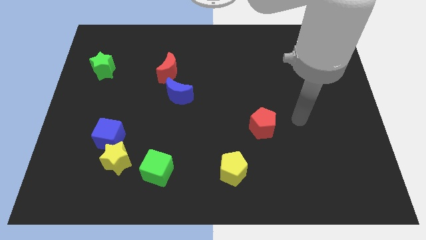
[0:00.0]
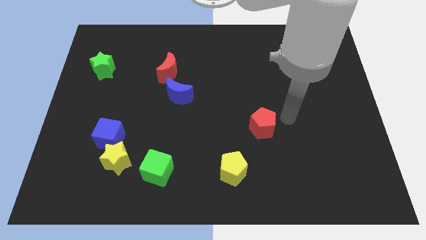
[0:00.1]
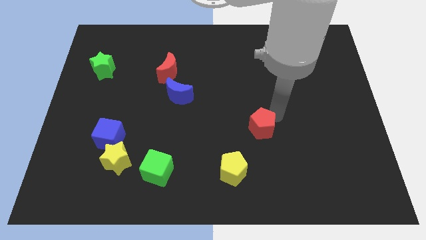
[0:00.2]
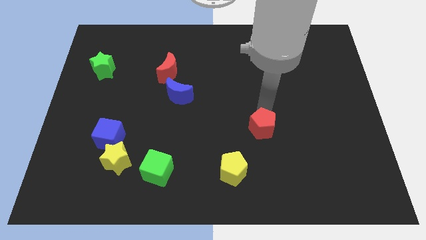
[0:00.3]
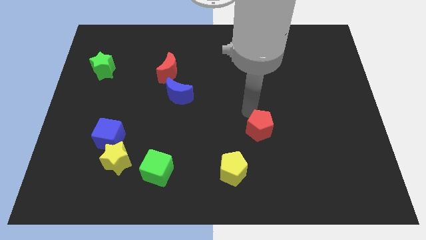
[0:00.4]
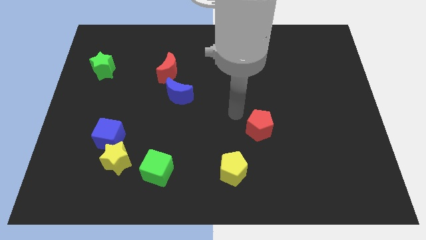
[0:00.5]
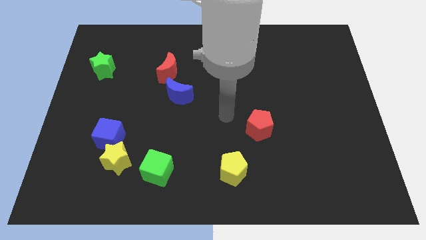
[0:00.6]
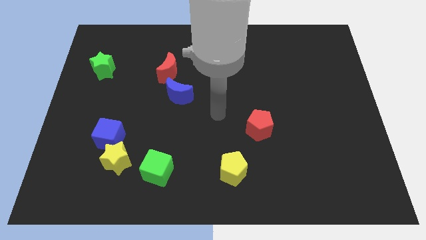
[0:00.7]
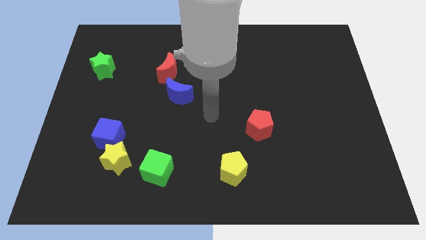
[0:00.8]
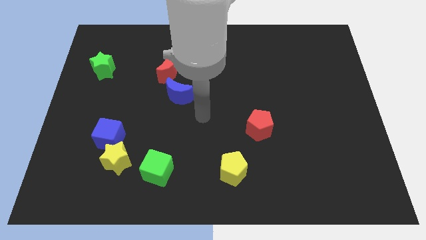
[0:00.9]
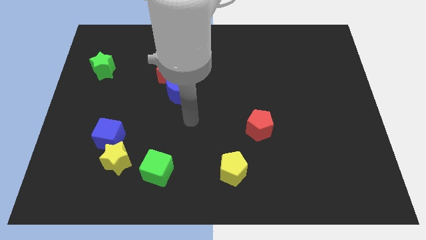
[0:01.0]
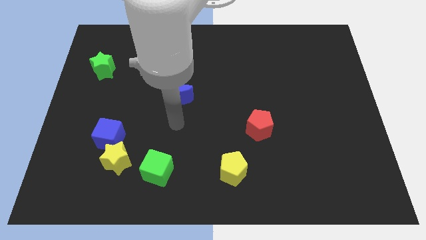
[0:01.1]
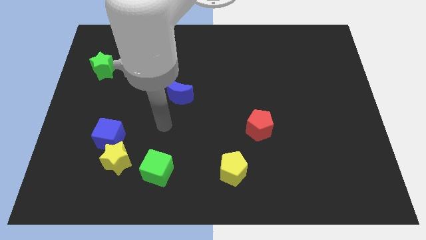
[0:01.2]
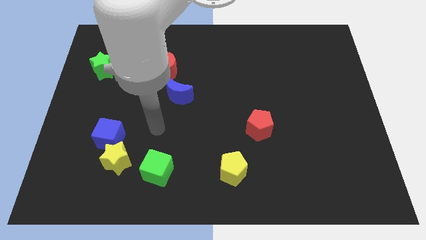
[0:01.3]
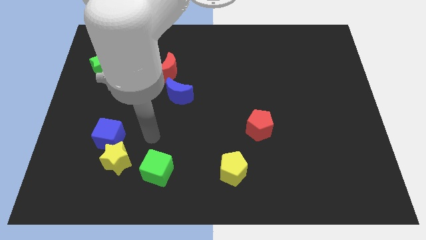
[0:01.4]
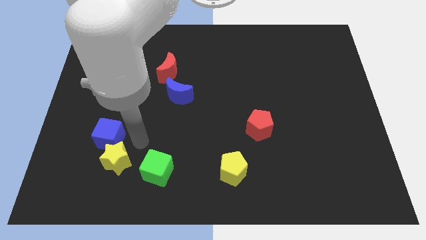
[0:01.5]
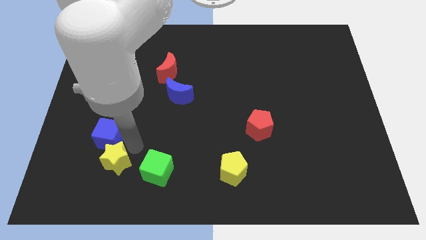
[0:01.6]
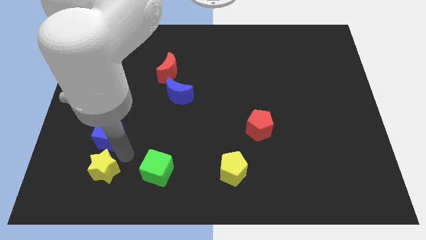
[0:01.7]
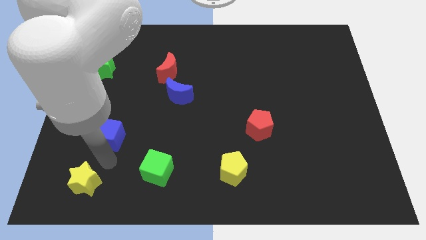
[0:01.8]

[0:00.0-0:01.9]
separate the blue cube from the yellow star

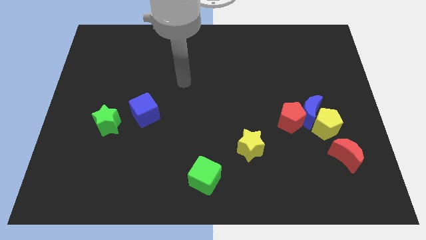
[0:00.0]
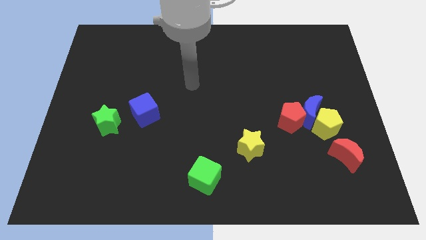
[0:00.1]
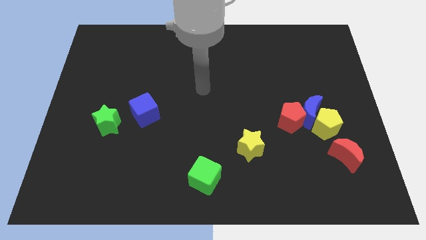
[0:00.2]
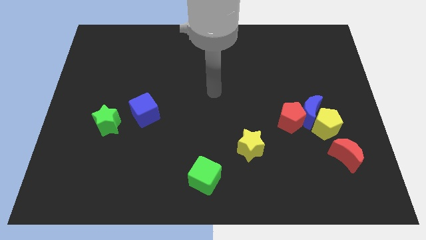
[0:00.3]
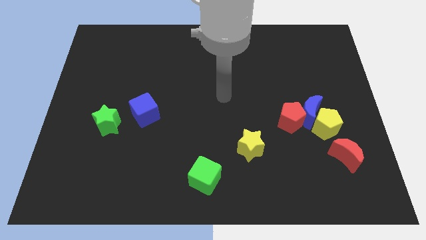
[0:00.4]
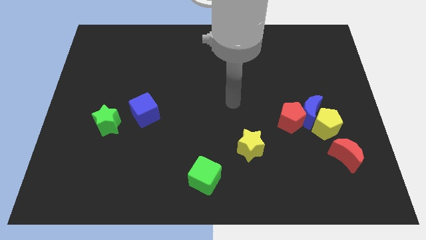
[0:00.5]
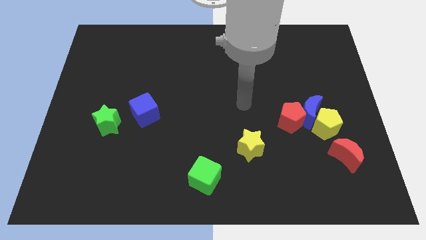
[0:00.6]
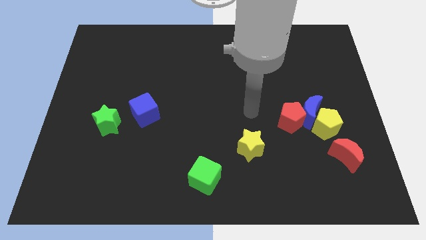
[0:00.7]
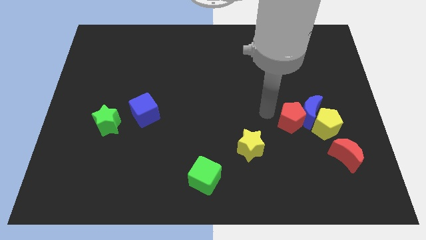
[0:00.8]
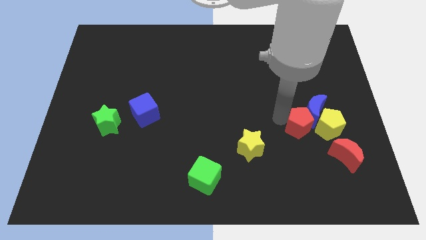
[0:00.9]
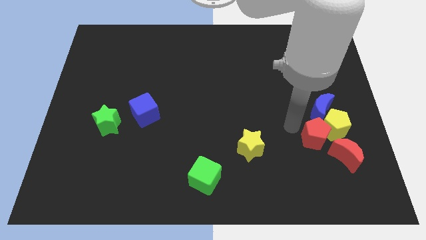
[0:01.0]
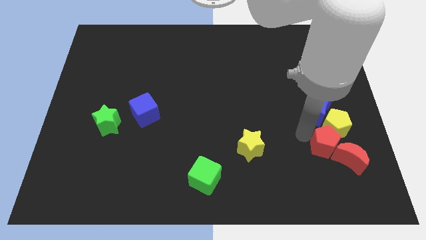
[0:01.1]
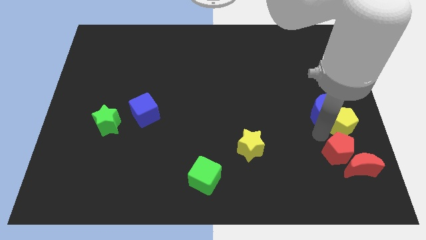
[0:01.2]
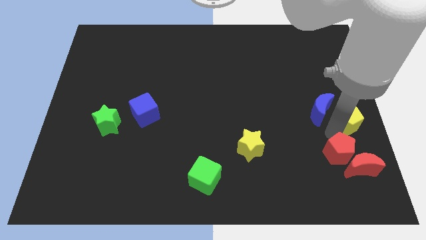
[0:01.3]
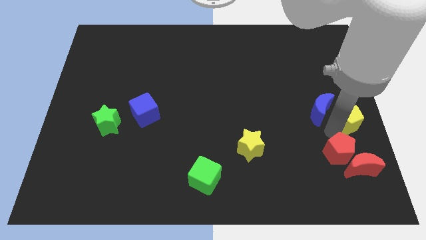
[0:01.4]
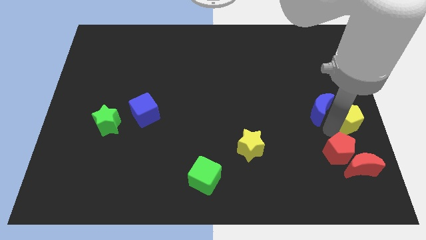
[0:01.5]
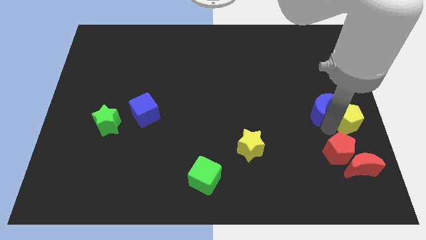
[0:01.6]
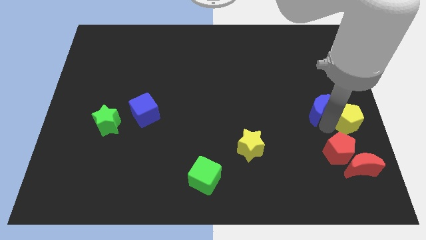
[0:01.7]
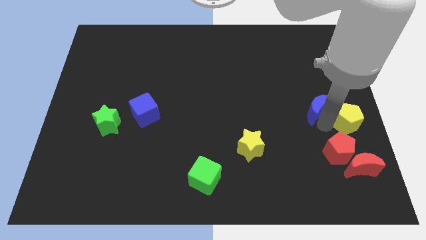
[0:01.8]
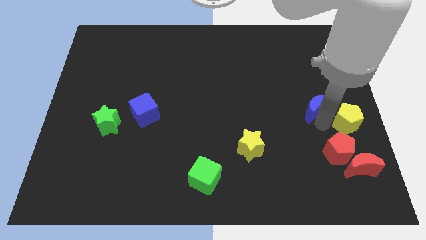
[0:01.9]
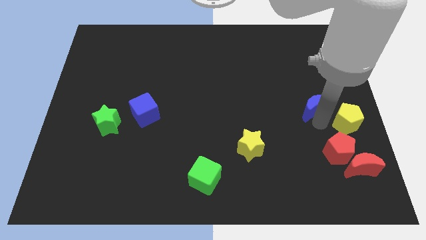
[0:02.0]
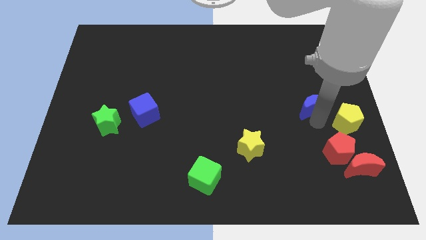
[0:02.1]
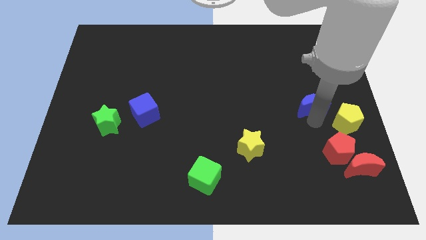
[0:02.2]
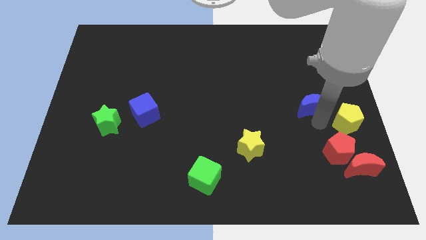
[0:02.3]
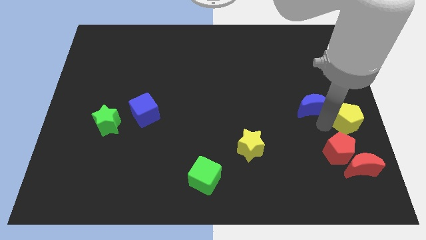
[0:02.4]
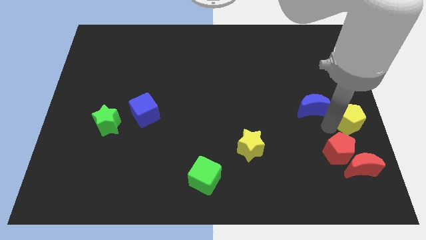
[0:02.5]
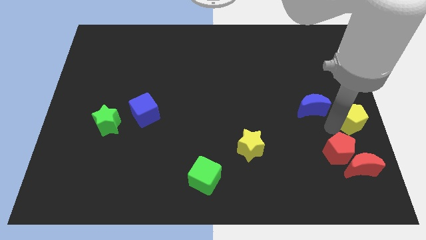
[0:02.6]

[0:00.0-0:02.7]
separate the blue moon from the yellow pentagon and red pentagon

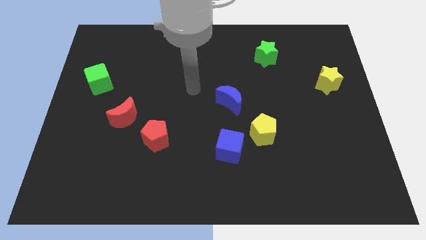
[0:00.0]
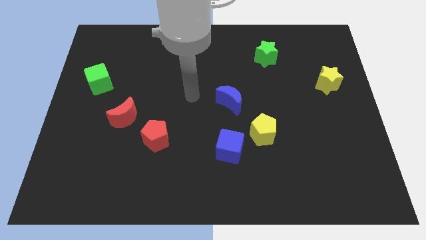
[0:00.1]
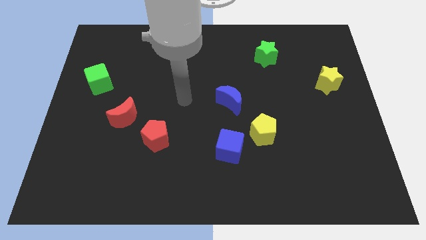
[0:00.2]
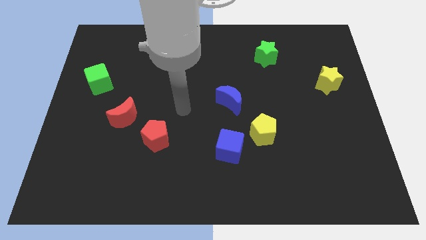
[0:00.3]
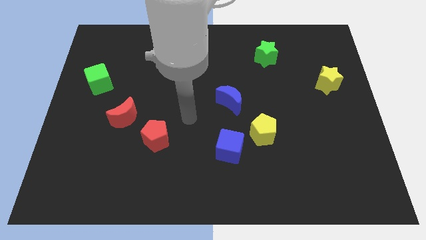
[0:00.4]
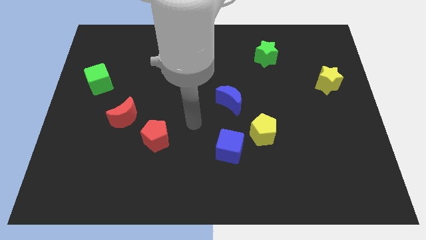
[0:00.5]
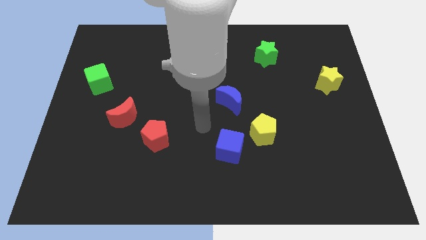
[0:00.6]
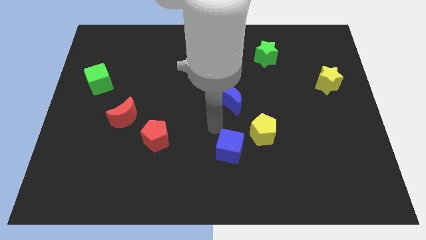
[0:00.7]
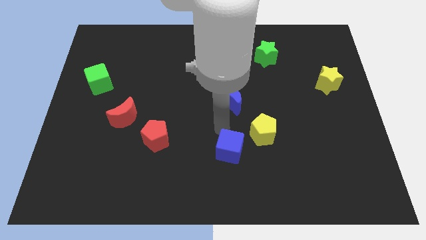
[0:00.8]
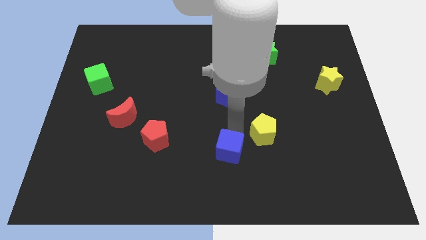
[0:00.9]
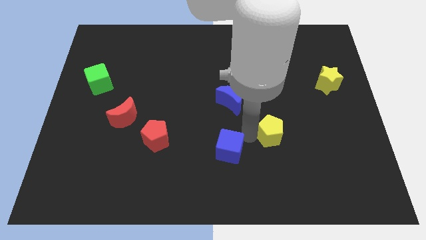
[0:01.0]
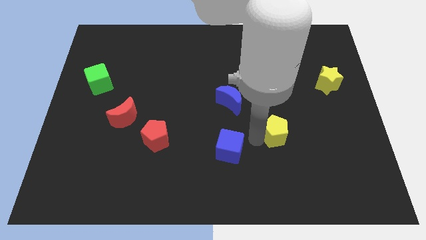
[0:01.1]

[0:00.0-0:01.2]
separate the blue cube from the yellow pentagon

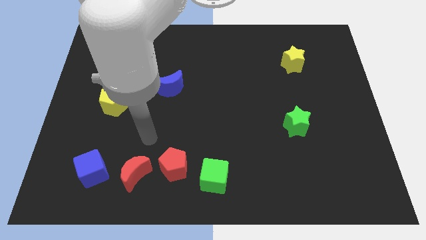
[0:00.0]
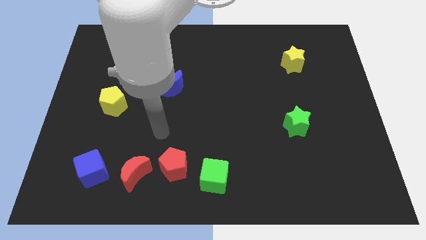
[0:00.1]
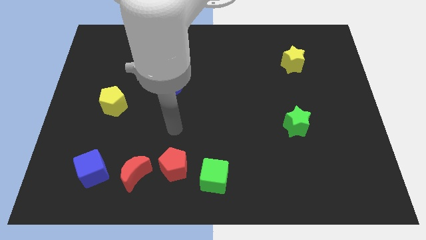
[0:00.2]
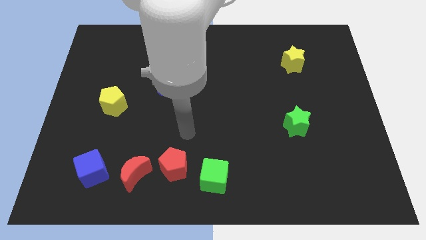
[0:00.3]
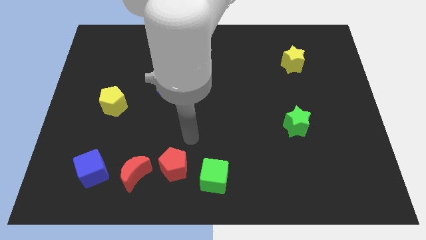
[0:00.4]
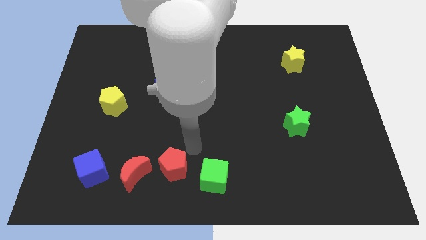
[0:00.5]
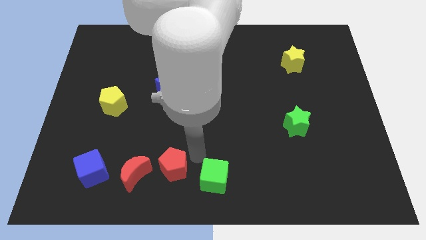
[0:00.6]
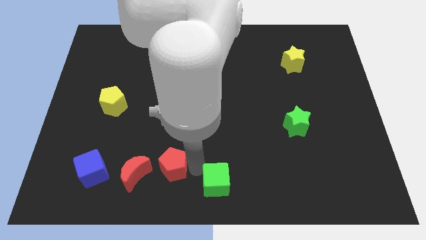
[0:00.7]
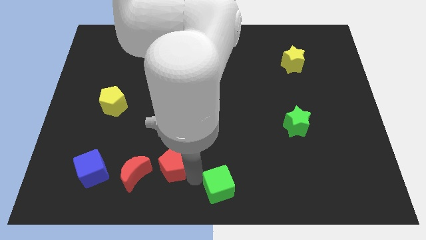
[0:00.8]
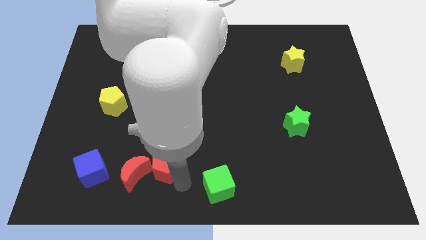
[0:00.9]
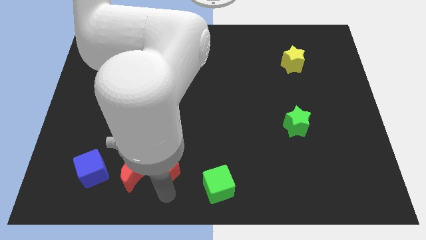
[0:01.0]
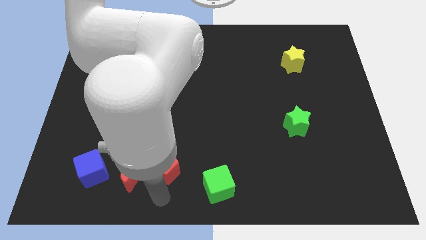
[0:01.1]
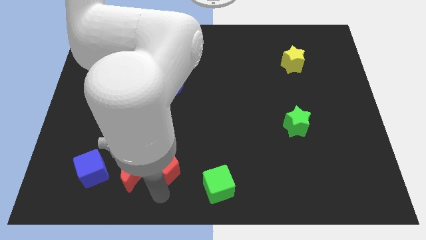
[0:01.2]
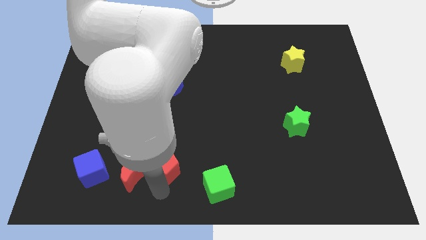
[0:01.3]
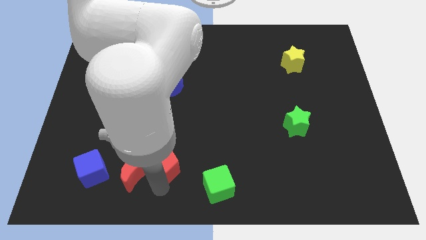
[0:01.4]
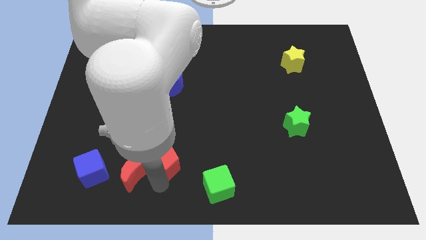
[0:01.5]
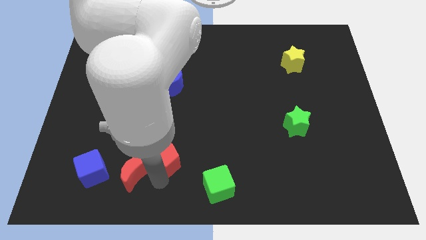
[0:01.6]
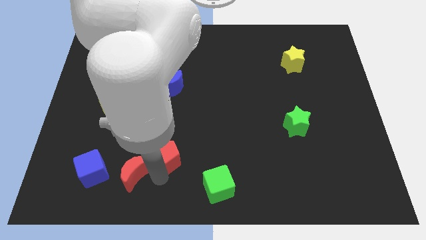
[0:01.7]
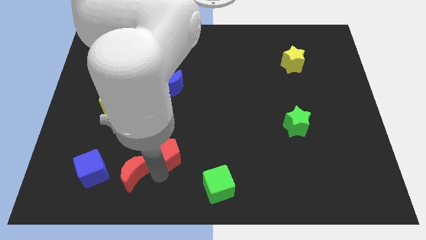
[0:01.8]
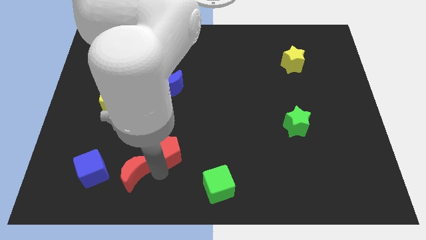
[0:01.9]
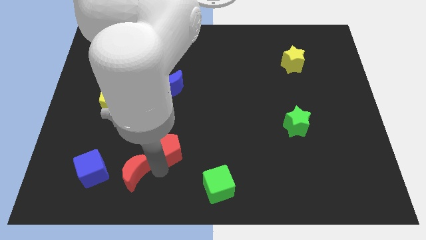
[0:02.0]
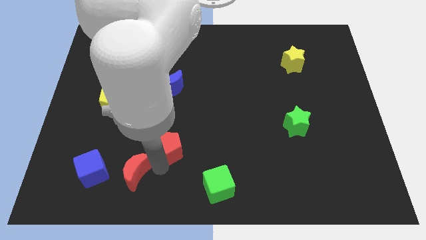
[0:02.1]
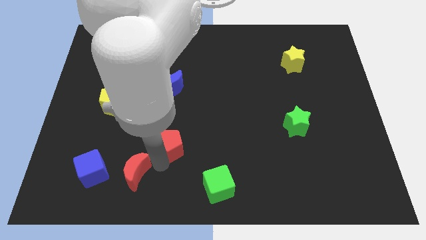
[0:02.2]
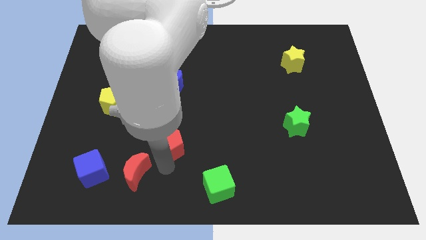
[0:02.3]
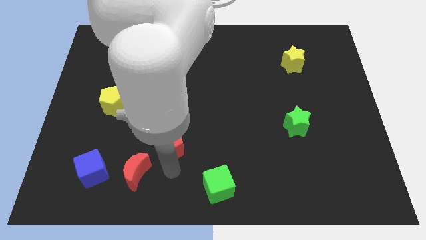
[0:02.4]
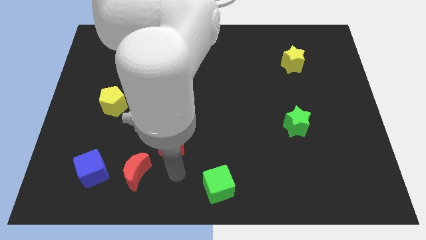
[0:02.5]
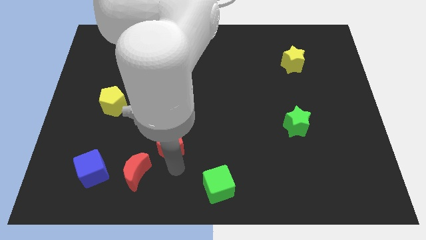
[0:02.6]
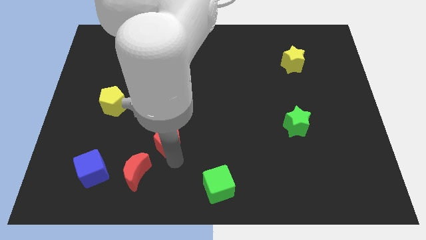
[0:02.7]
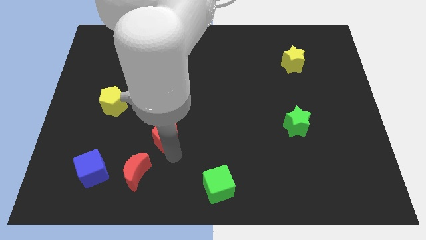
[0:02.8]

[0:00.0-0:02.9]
pull the red pentagon apart from the red moon and green cube

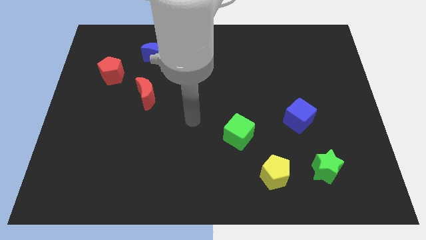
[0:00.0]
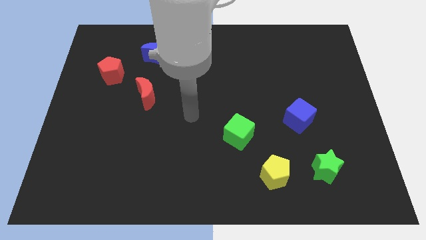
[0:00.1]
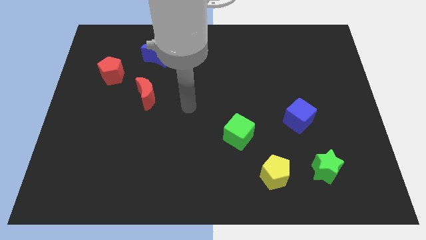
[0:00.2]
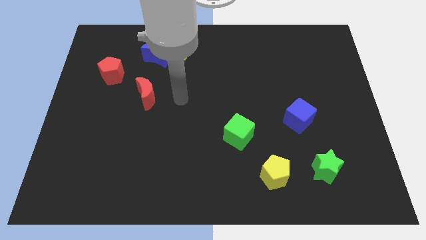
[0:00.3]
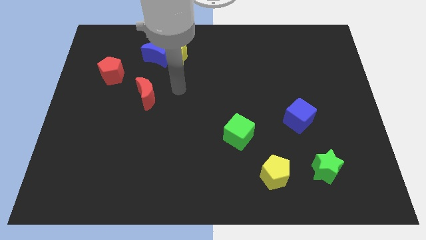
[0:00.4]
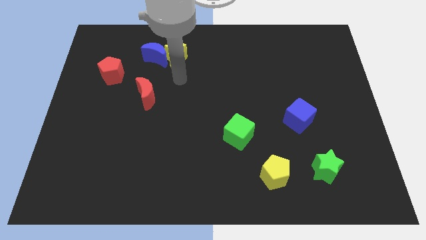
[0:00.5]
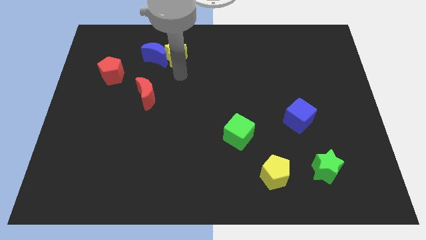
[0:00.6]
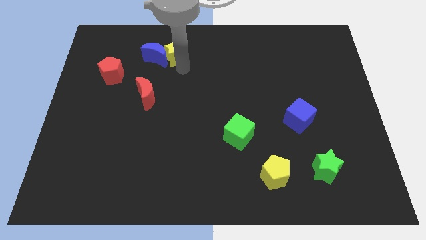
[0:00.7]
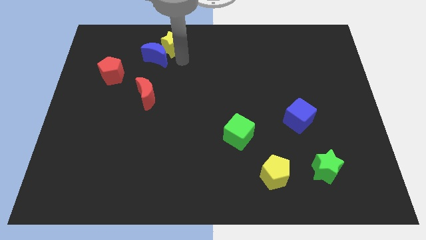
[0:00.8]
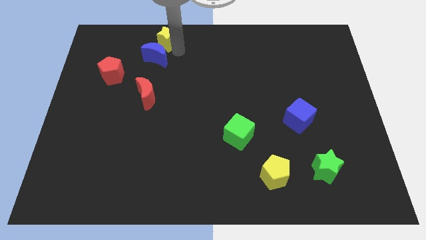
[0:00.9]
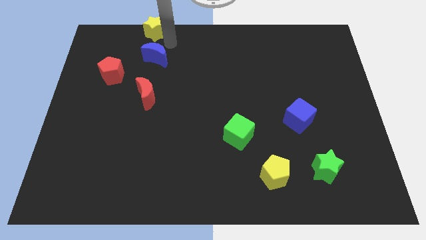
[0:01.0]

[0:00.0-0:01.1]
move the blue moon away from the yellow star
